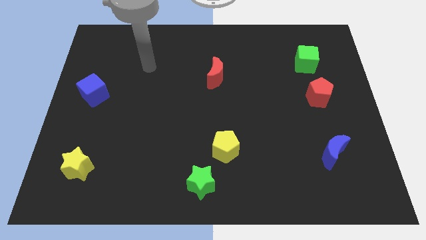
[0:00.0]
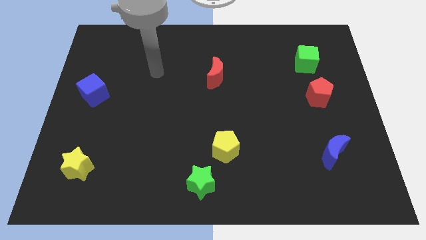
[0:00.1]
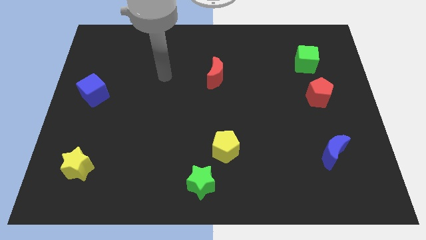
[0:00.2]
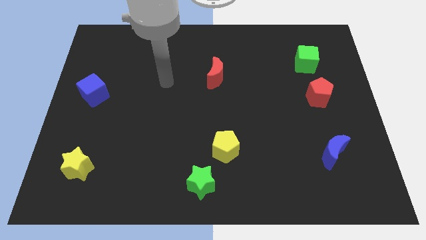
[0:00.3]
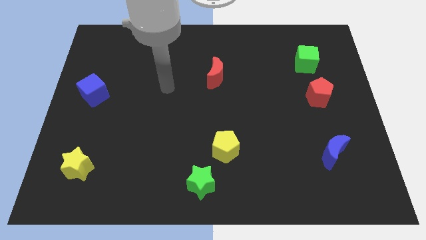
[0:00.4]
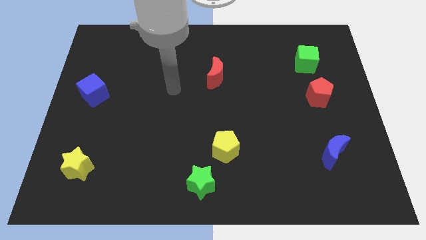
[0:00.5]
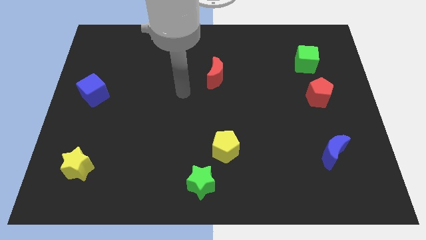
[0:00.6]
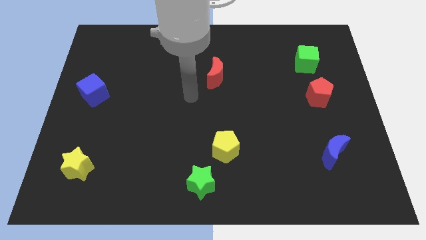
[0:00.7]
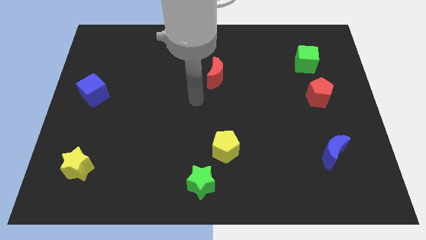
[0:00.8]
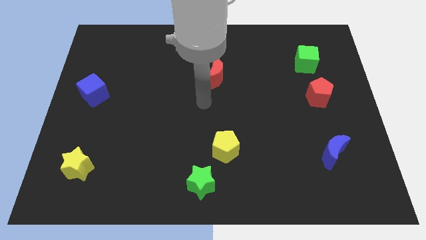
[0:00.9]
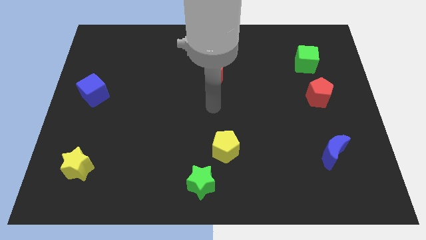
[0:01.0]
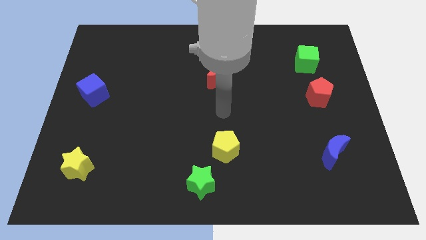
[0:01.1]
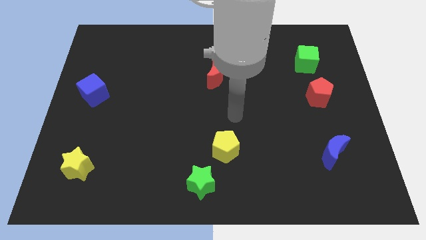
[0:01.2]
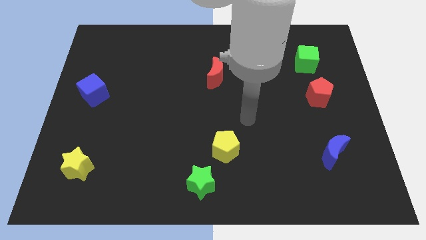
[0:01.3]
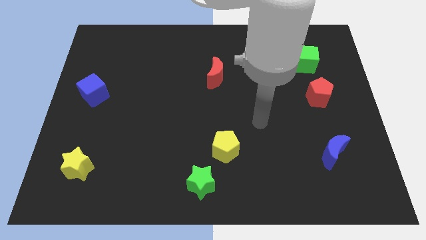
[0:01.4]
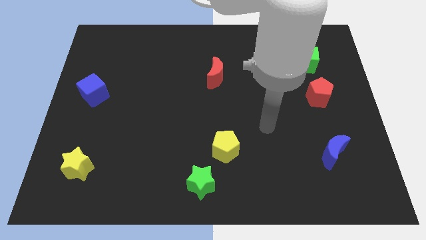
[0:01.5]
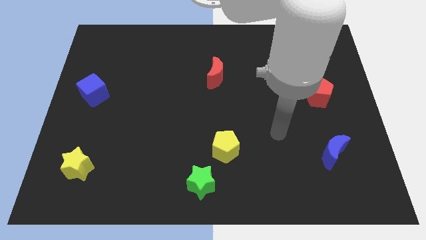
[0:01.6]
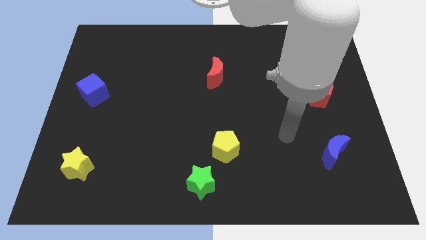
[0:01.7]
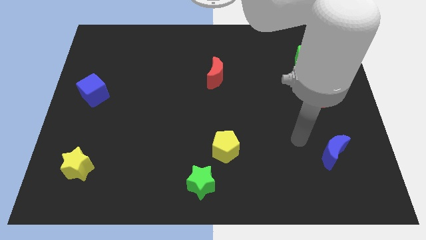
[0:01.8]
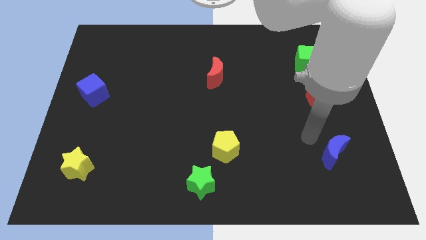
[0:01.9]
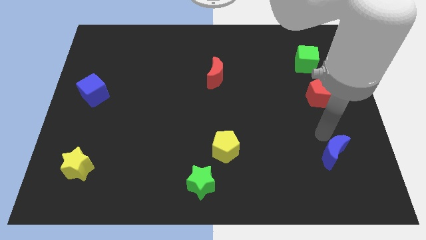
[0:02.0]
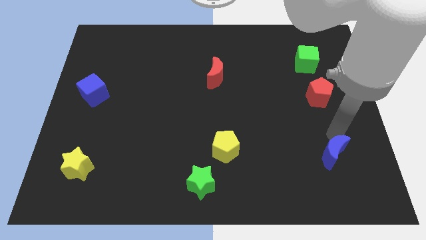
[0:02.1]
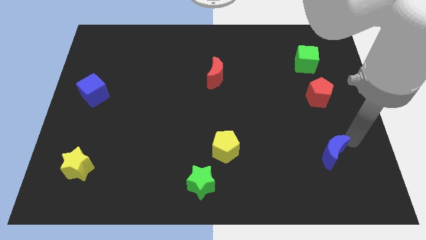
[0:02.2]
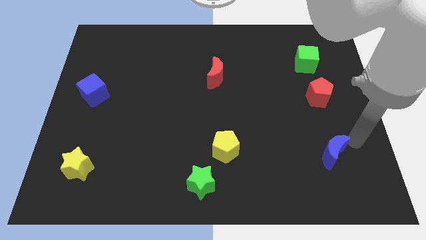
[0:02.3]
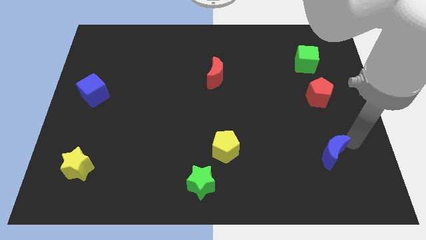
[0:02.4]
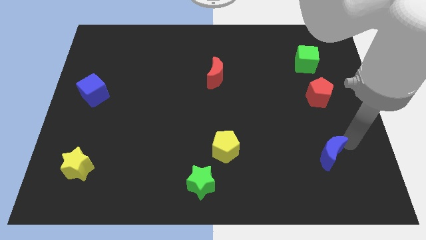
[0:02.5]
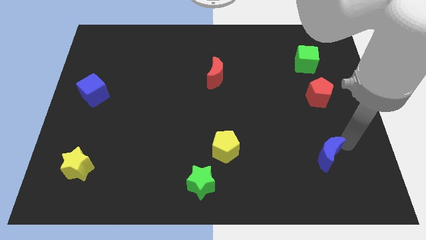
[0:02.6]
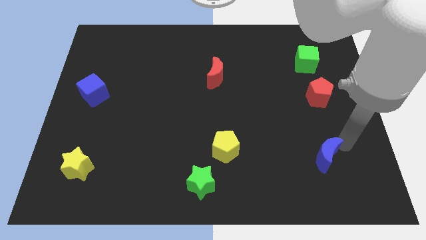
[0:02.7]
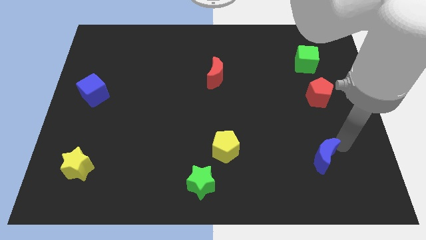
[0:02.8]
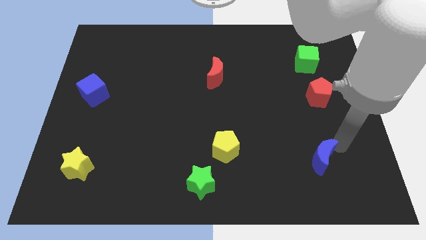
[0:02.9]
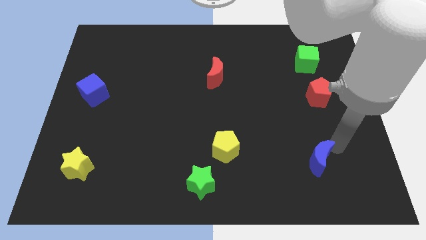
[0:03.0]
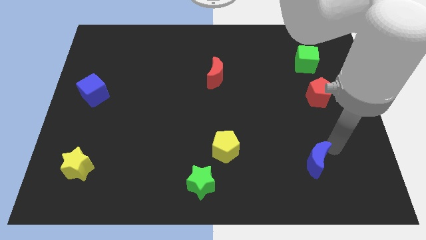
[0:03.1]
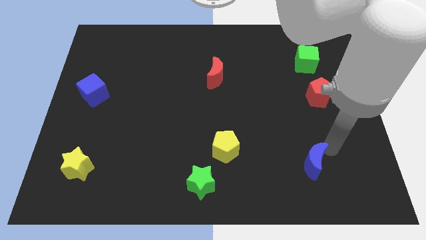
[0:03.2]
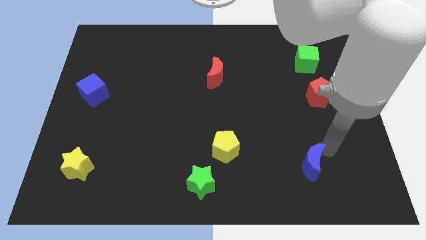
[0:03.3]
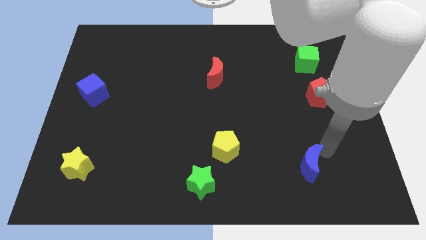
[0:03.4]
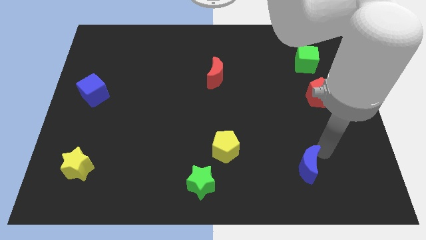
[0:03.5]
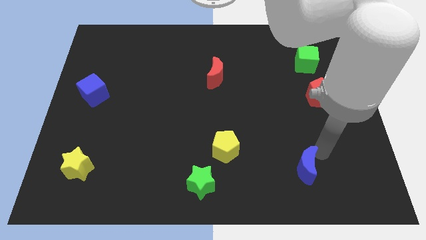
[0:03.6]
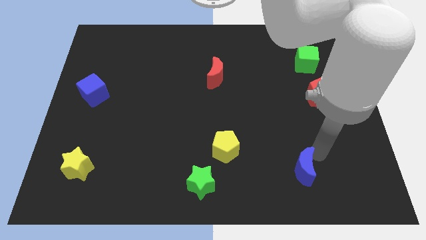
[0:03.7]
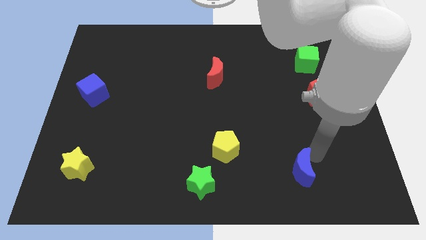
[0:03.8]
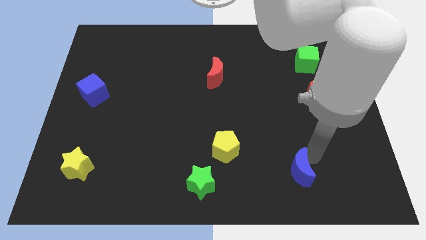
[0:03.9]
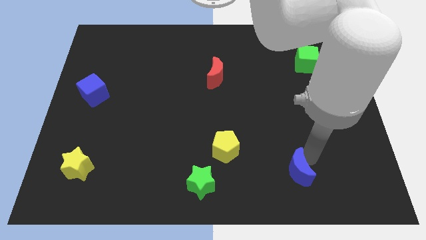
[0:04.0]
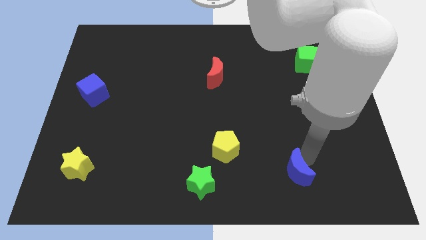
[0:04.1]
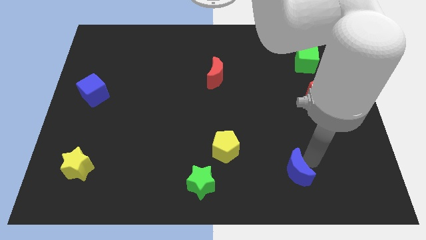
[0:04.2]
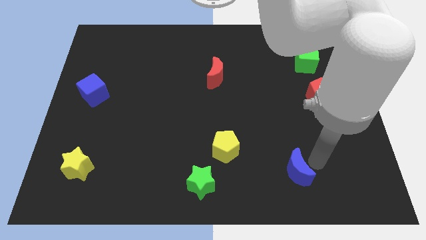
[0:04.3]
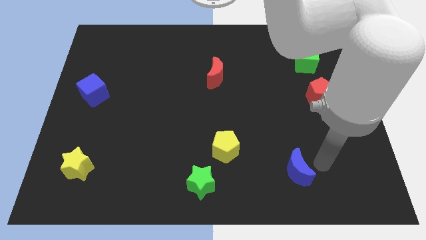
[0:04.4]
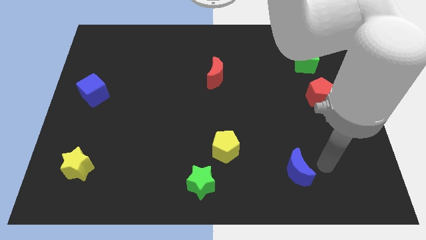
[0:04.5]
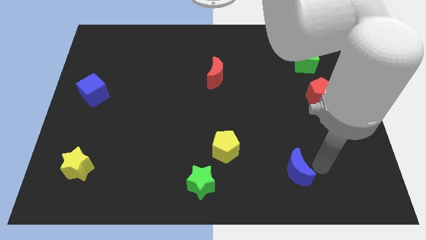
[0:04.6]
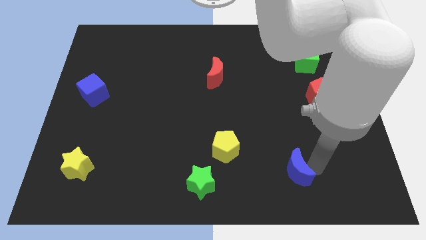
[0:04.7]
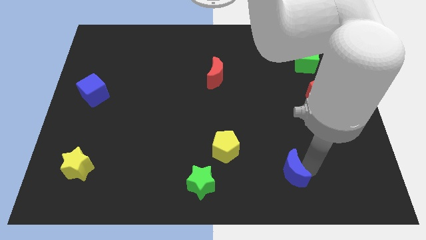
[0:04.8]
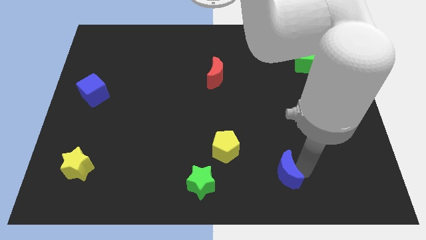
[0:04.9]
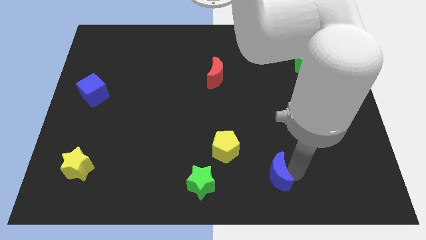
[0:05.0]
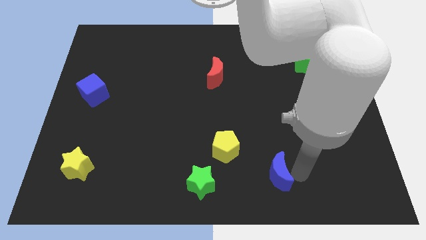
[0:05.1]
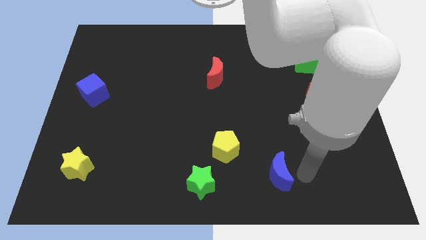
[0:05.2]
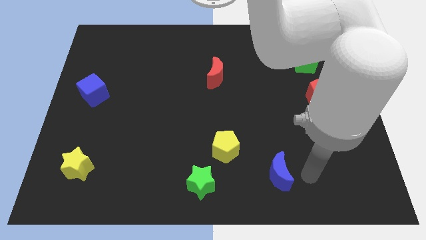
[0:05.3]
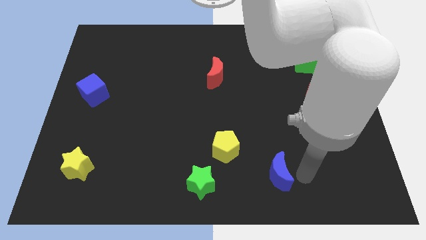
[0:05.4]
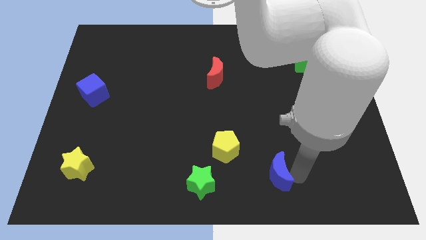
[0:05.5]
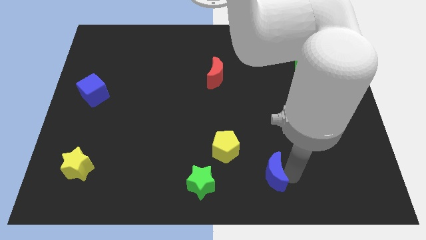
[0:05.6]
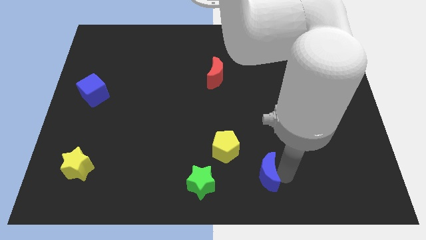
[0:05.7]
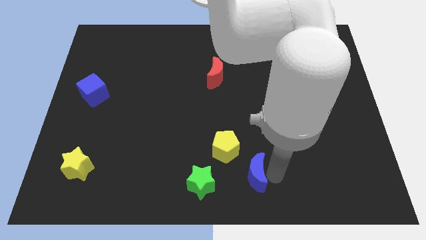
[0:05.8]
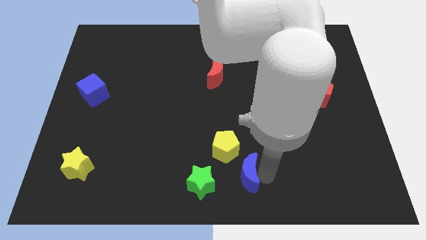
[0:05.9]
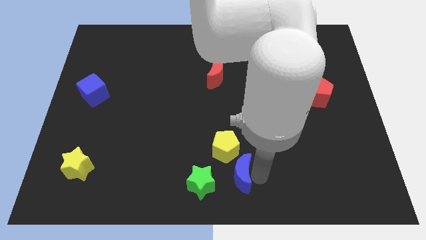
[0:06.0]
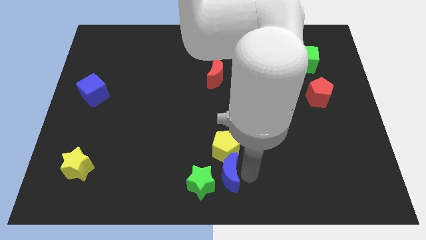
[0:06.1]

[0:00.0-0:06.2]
move the blue moon close to the green star

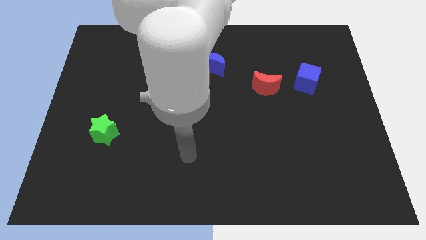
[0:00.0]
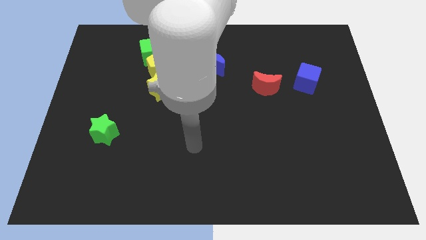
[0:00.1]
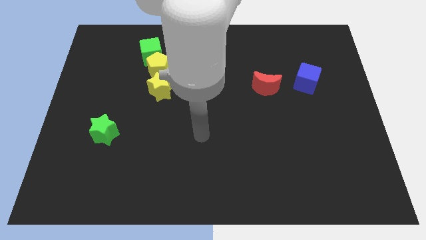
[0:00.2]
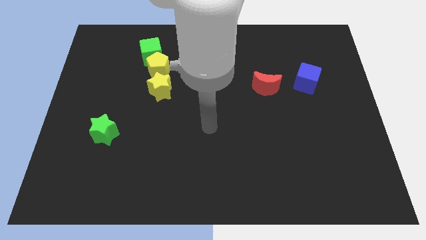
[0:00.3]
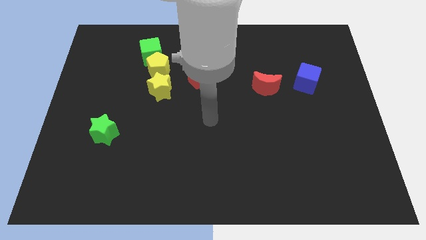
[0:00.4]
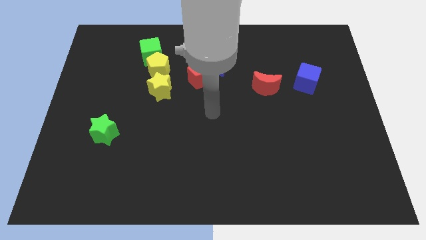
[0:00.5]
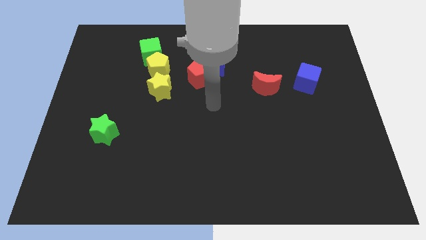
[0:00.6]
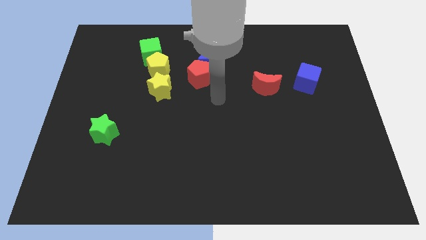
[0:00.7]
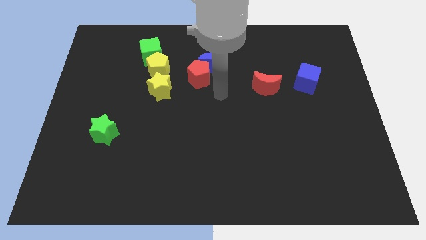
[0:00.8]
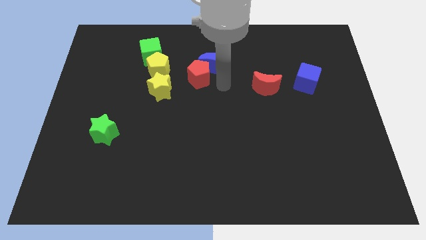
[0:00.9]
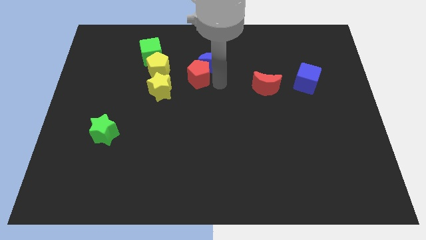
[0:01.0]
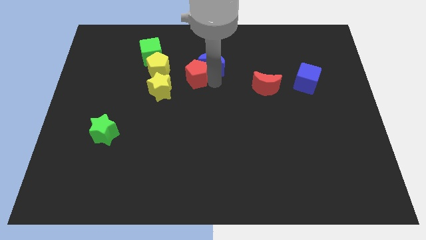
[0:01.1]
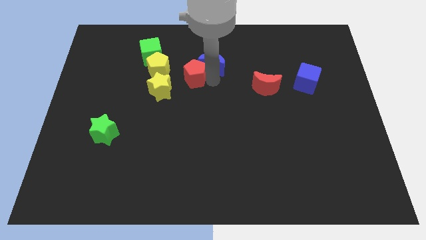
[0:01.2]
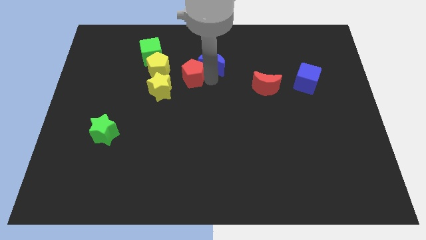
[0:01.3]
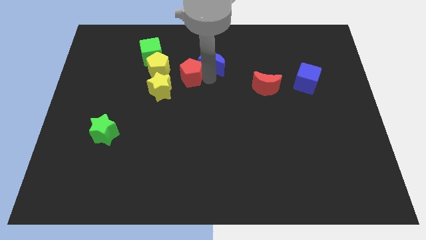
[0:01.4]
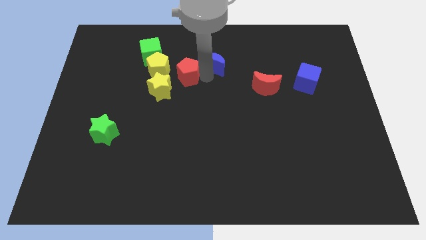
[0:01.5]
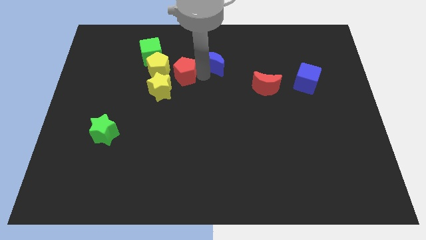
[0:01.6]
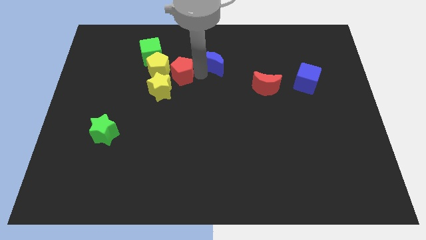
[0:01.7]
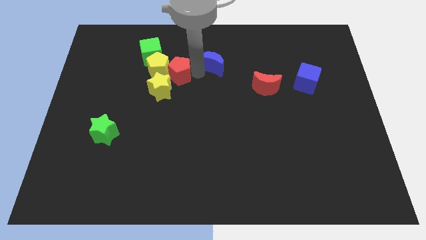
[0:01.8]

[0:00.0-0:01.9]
put the red pentagon towards the yellow pentagon

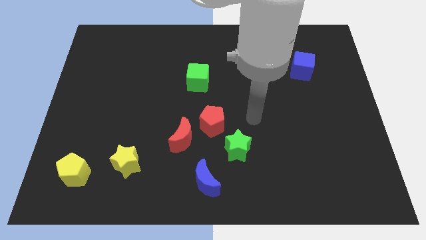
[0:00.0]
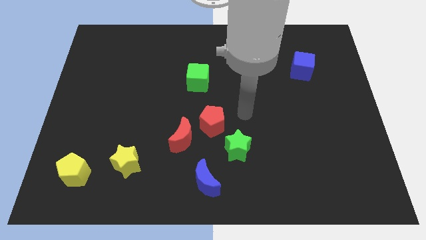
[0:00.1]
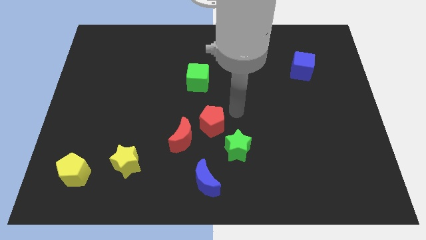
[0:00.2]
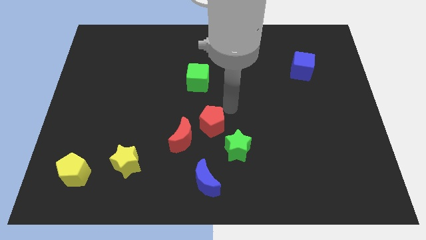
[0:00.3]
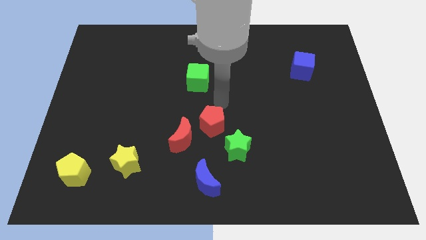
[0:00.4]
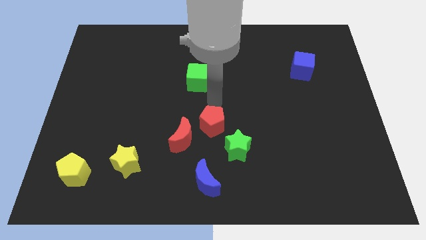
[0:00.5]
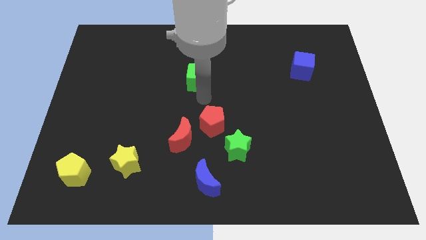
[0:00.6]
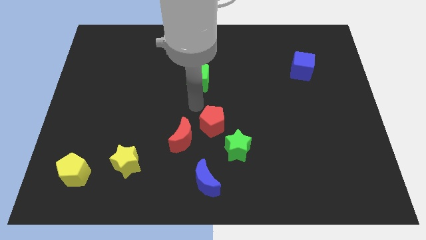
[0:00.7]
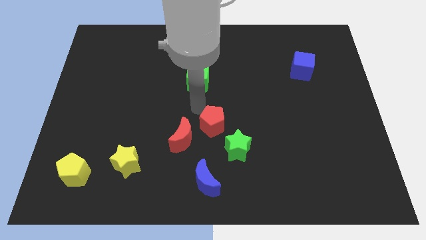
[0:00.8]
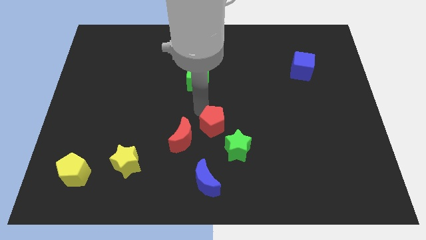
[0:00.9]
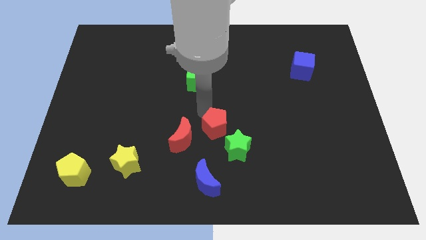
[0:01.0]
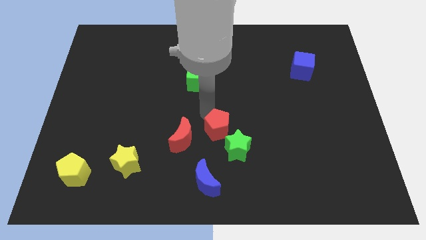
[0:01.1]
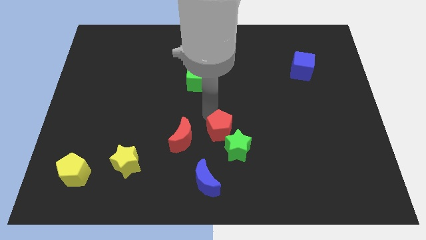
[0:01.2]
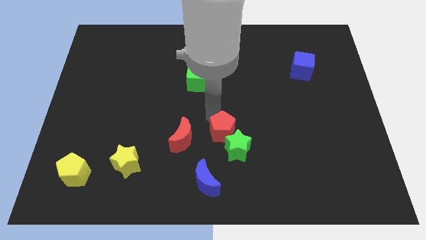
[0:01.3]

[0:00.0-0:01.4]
move the red pentagon to the green star
